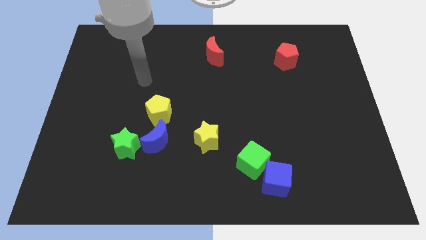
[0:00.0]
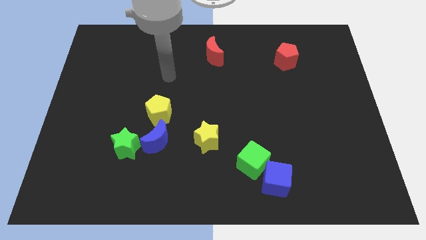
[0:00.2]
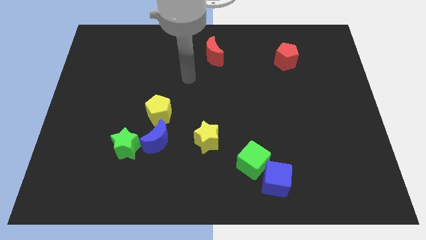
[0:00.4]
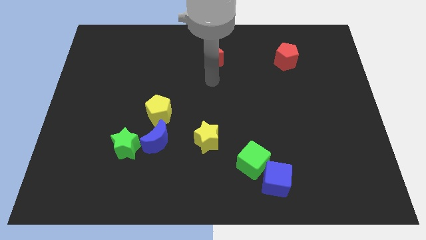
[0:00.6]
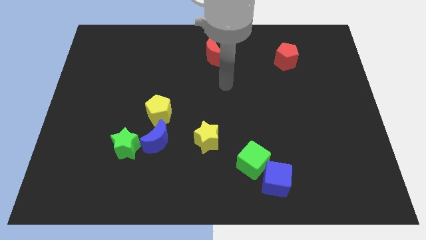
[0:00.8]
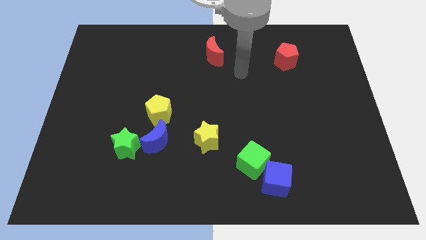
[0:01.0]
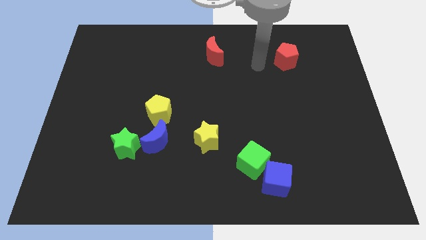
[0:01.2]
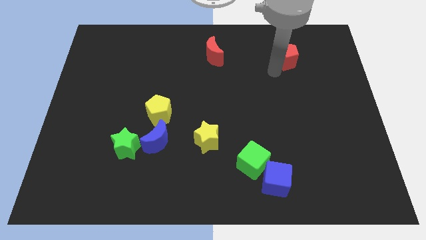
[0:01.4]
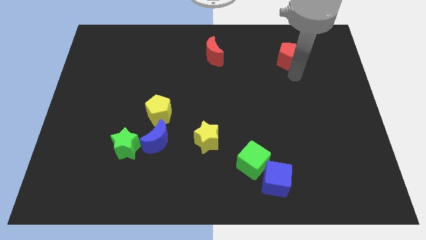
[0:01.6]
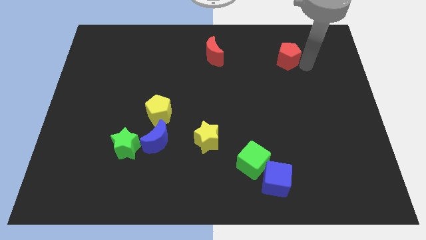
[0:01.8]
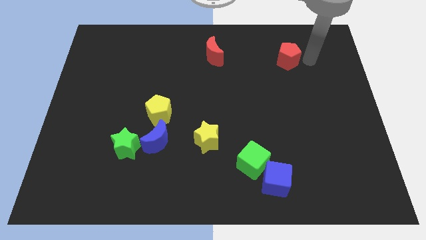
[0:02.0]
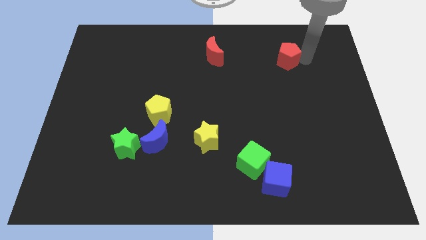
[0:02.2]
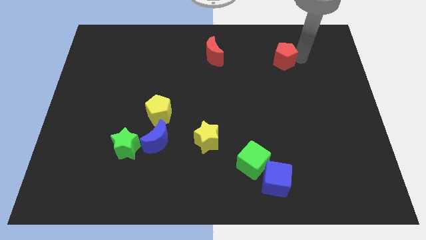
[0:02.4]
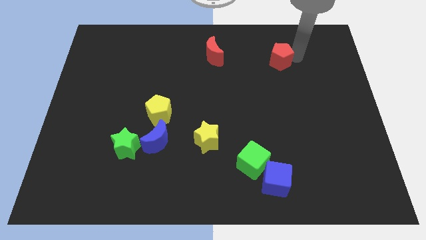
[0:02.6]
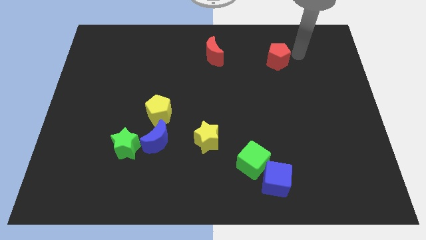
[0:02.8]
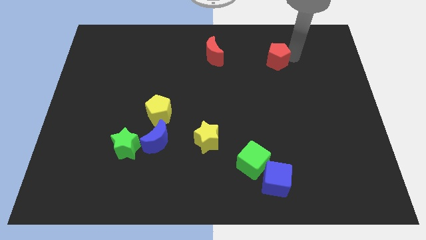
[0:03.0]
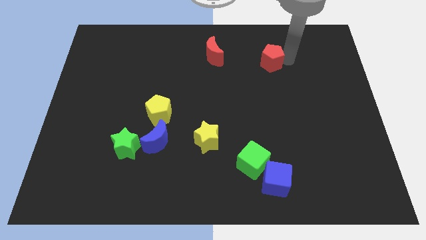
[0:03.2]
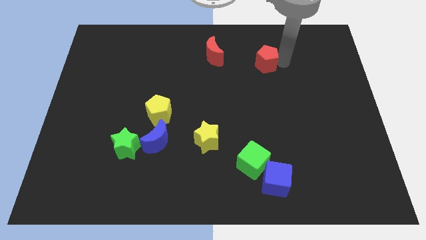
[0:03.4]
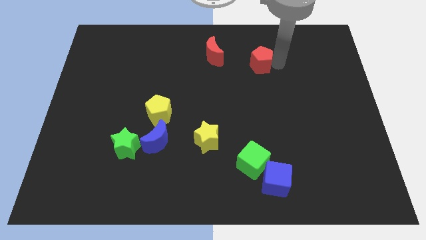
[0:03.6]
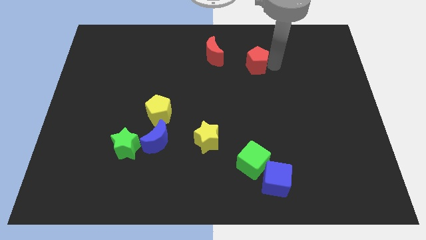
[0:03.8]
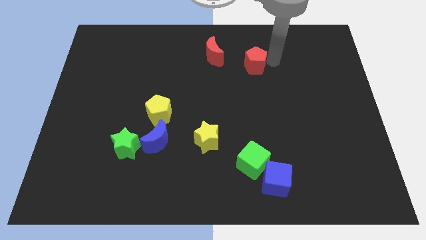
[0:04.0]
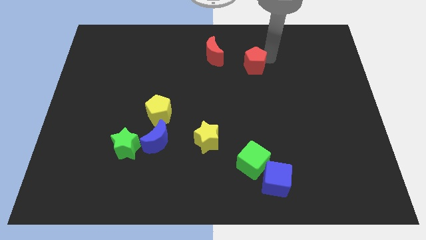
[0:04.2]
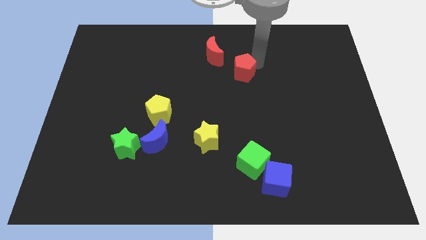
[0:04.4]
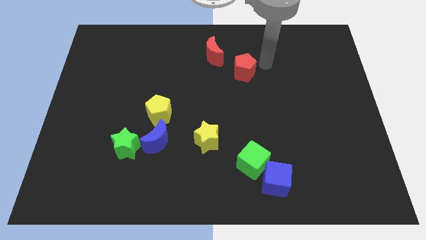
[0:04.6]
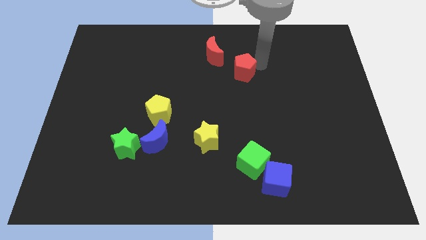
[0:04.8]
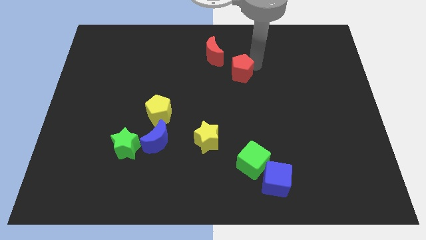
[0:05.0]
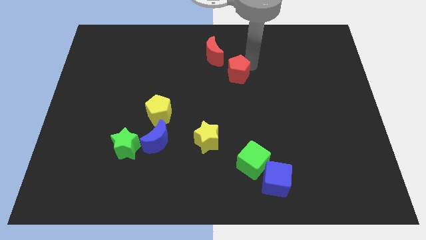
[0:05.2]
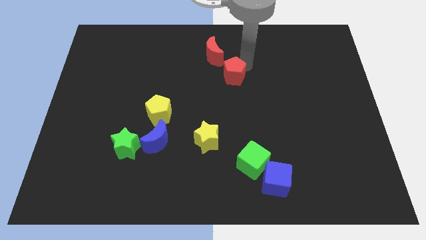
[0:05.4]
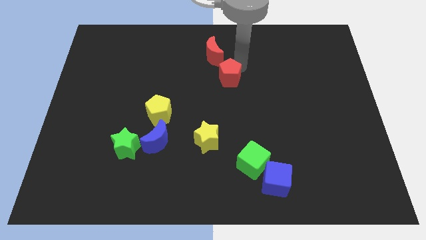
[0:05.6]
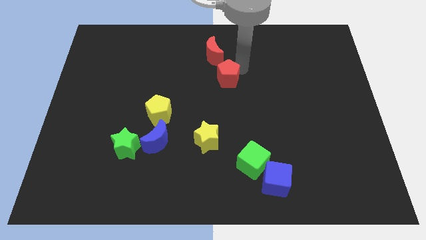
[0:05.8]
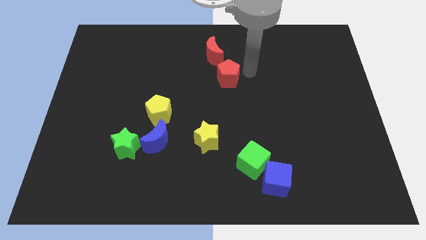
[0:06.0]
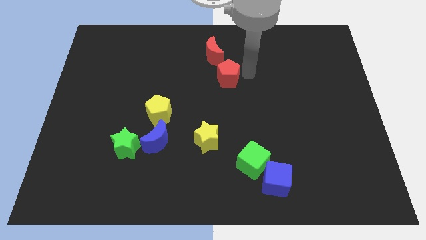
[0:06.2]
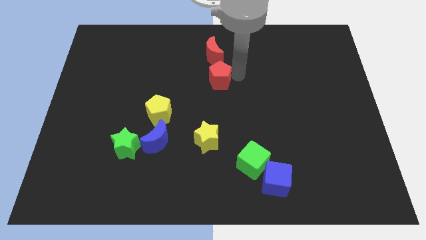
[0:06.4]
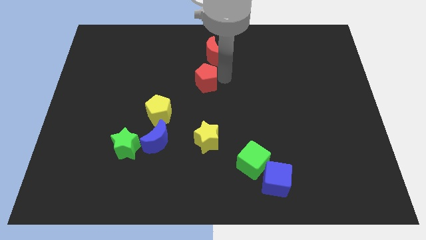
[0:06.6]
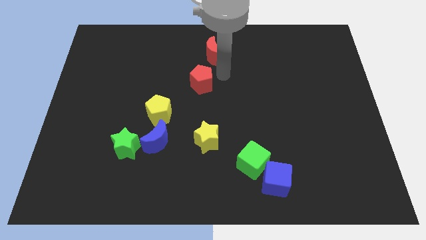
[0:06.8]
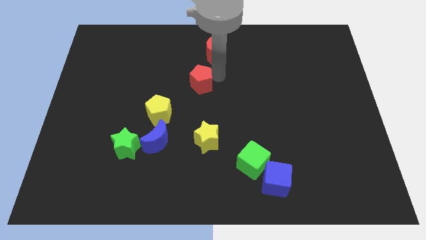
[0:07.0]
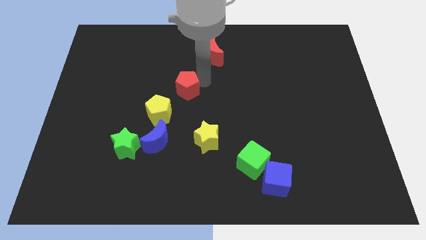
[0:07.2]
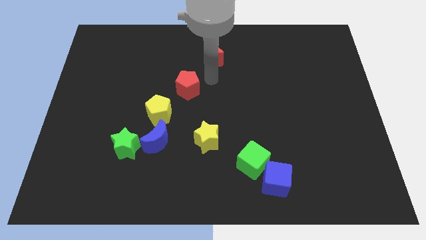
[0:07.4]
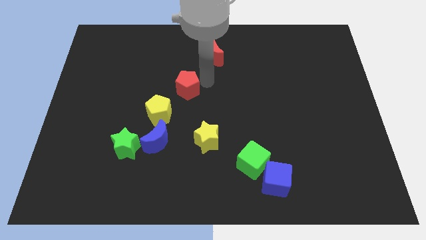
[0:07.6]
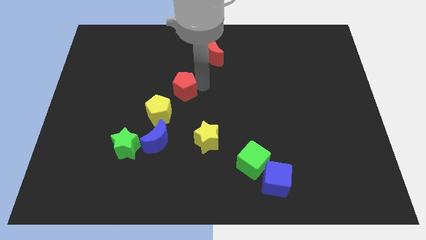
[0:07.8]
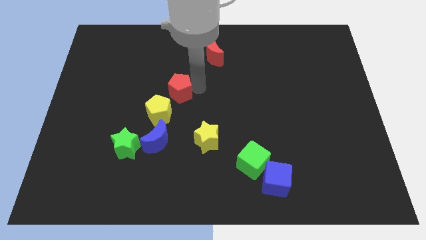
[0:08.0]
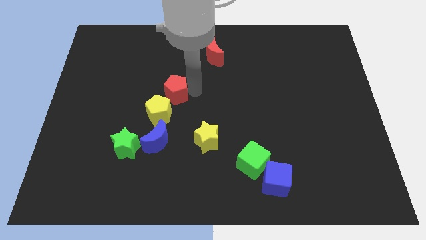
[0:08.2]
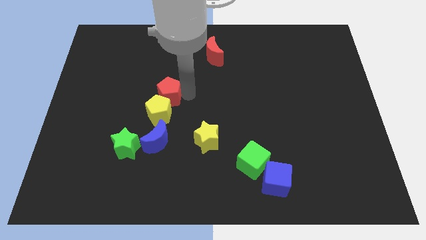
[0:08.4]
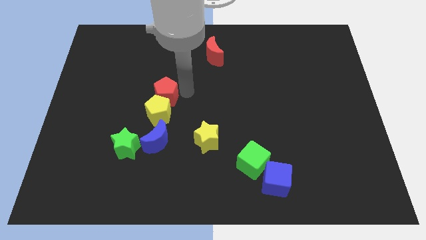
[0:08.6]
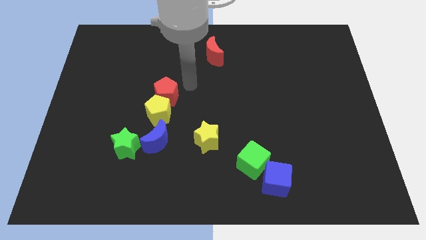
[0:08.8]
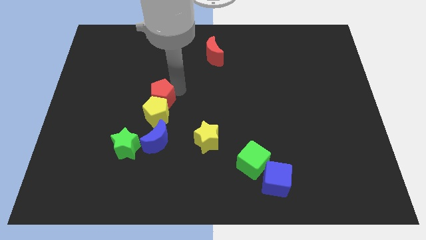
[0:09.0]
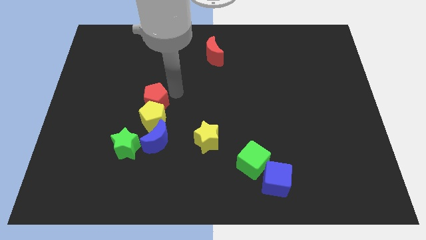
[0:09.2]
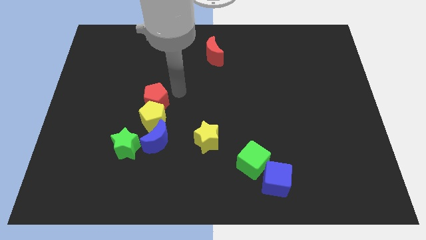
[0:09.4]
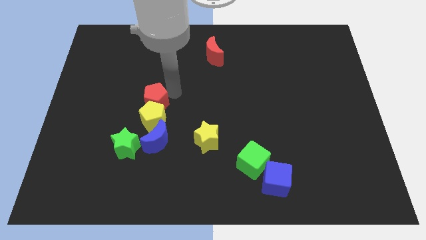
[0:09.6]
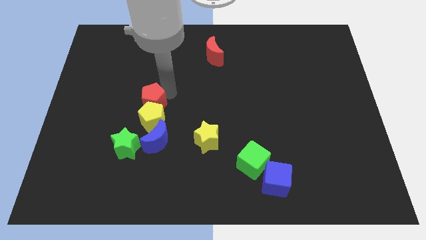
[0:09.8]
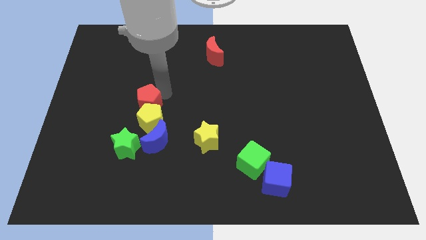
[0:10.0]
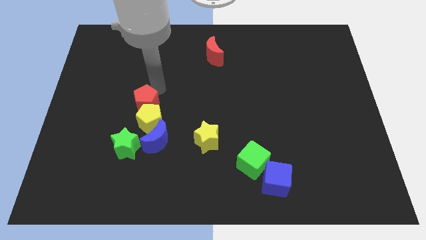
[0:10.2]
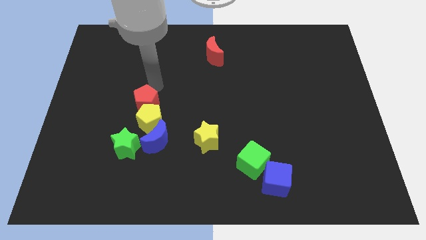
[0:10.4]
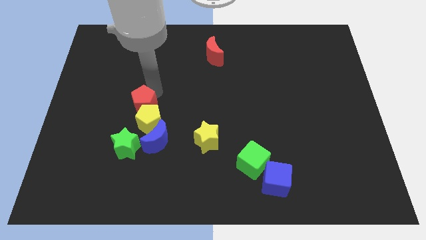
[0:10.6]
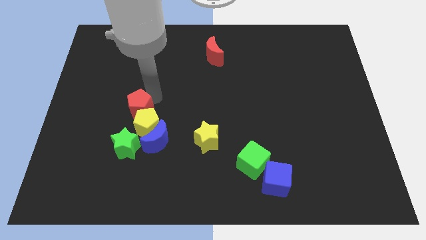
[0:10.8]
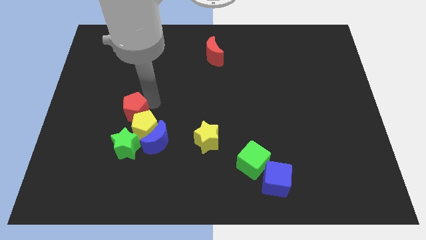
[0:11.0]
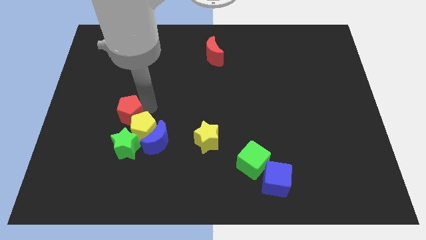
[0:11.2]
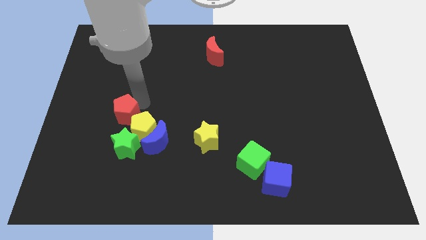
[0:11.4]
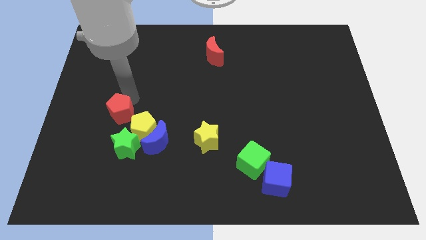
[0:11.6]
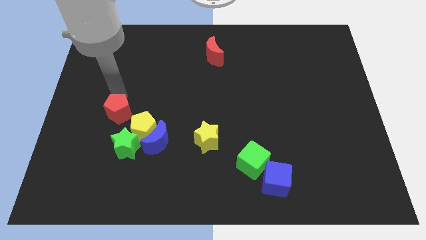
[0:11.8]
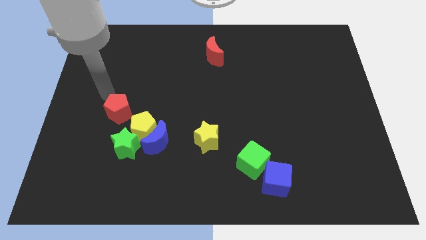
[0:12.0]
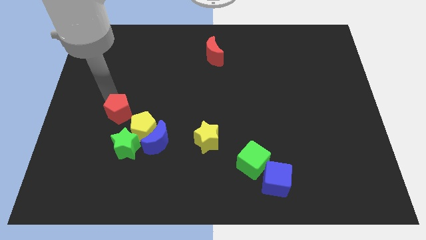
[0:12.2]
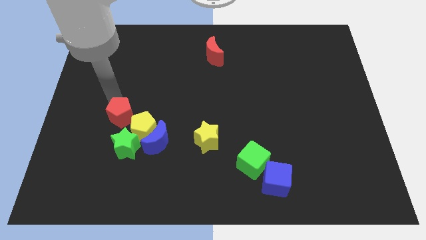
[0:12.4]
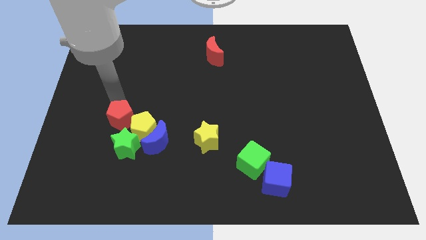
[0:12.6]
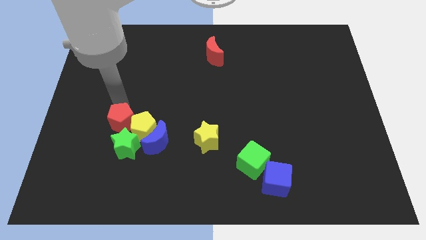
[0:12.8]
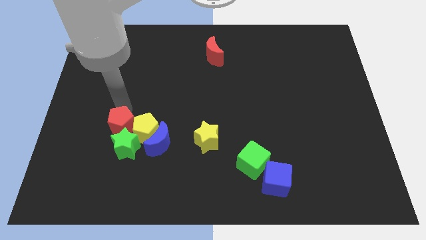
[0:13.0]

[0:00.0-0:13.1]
put the red pentagon to the green star

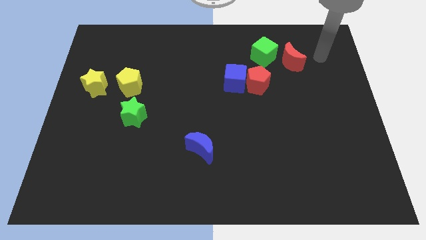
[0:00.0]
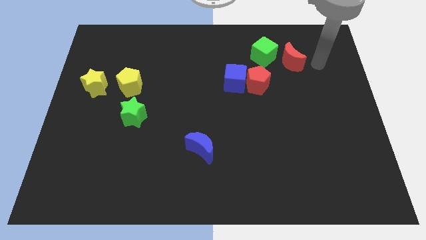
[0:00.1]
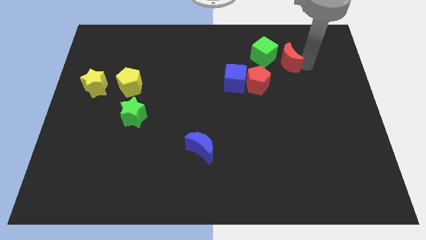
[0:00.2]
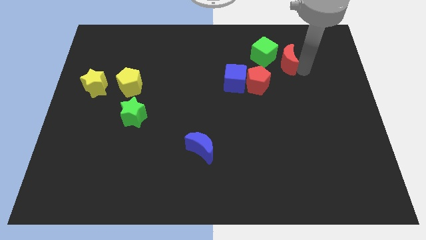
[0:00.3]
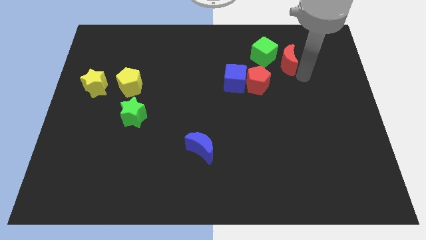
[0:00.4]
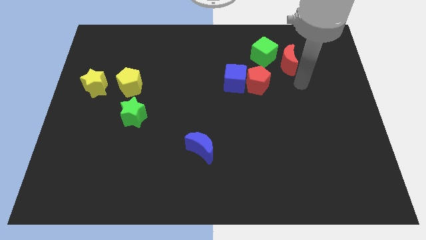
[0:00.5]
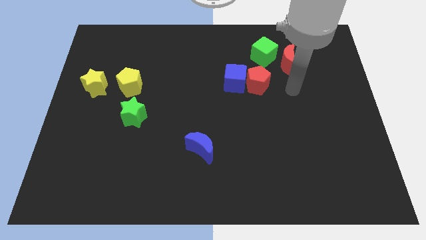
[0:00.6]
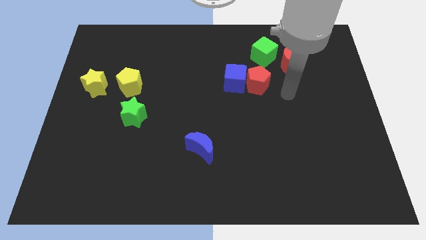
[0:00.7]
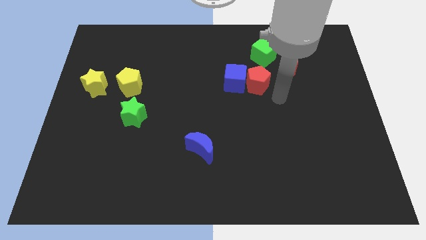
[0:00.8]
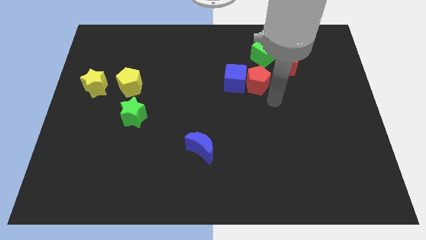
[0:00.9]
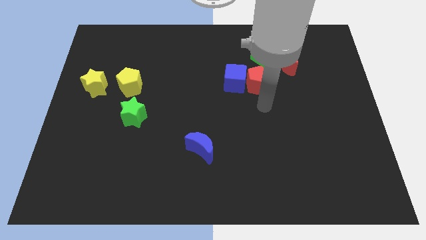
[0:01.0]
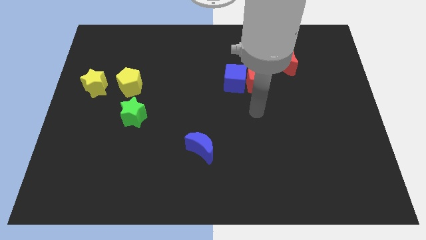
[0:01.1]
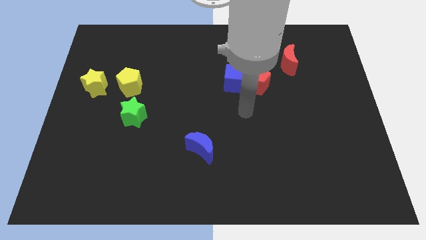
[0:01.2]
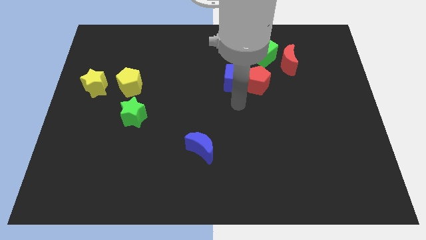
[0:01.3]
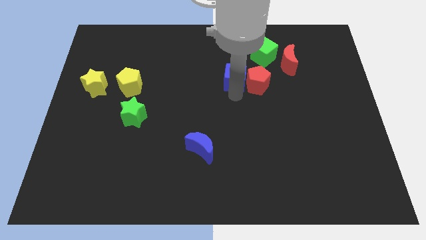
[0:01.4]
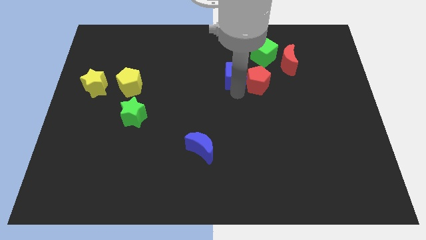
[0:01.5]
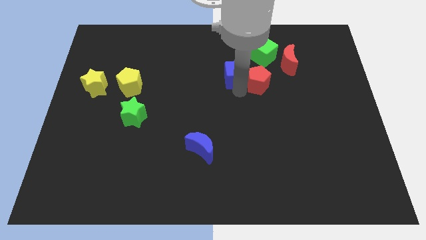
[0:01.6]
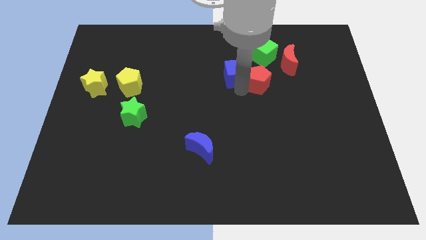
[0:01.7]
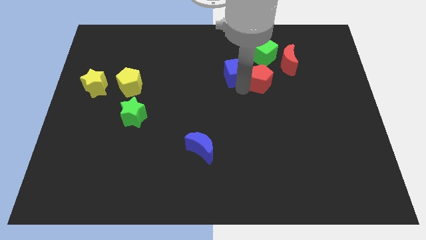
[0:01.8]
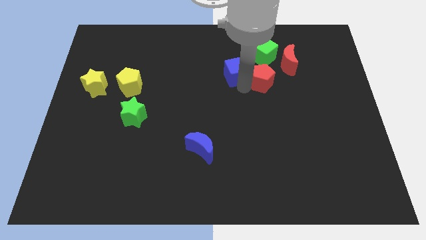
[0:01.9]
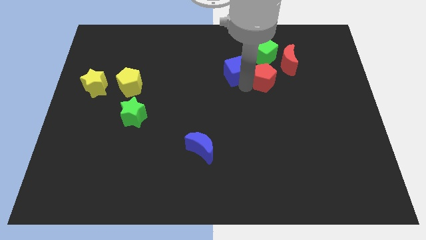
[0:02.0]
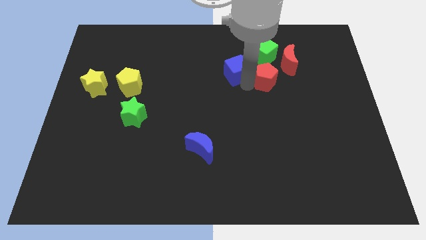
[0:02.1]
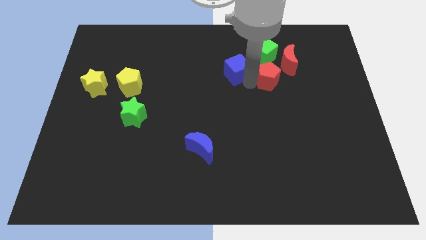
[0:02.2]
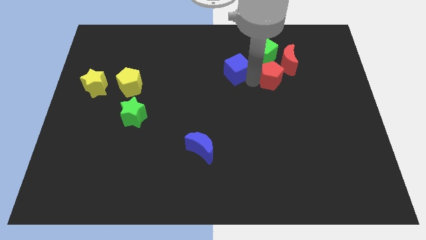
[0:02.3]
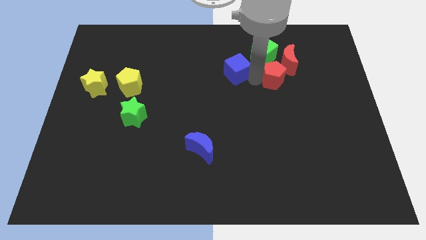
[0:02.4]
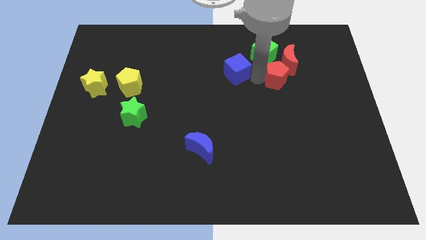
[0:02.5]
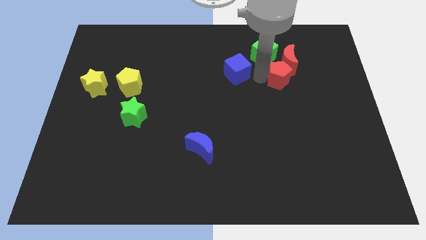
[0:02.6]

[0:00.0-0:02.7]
slide the red pentagon to the red moon
